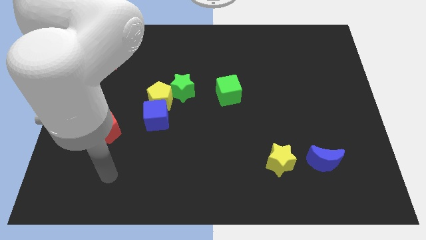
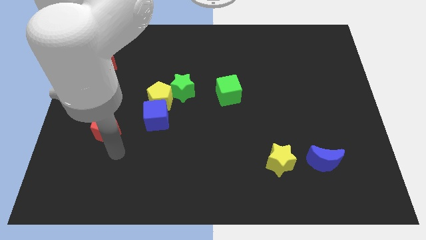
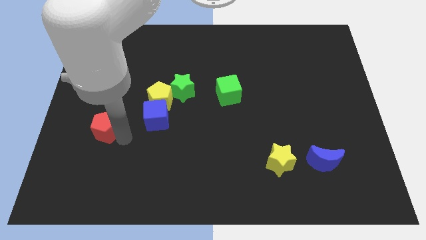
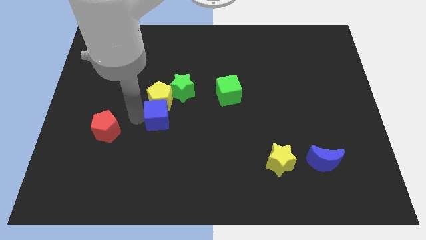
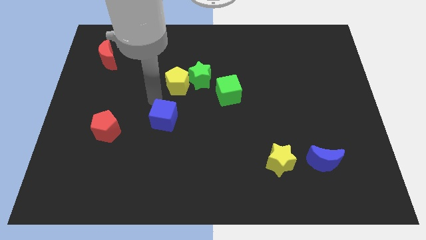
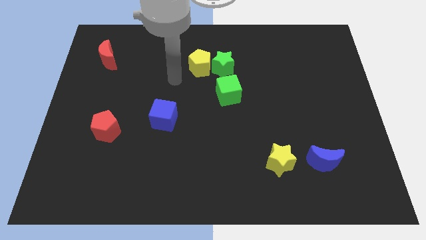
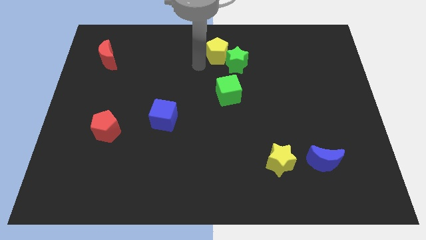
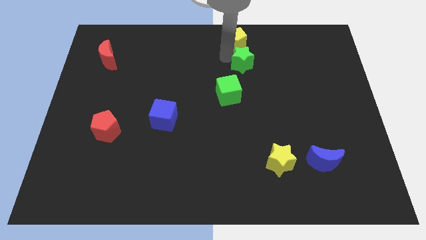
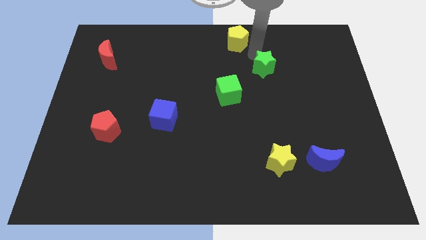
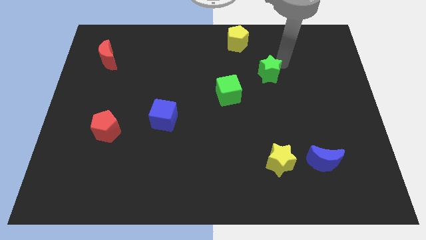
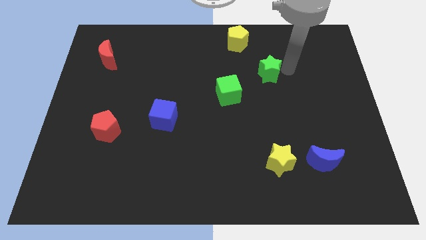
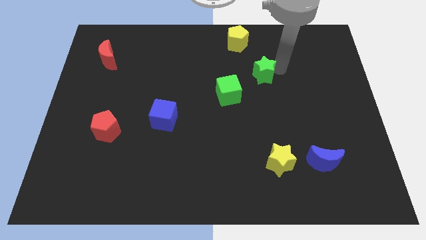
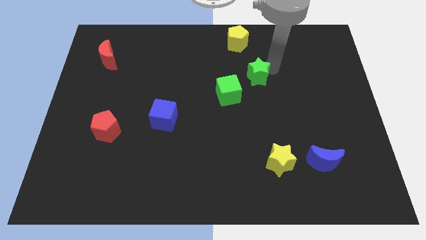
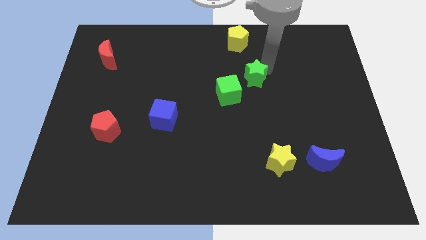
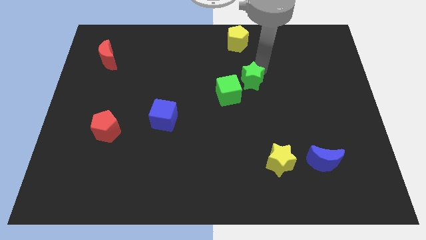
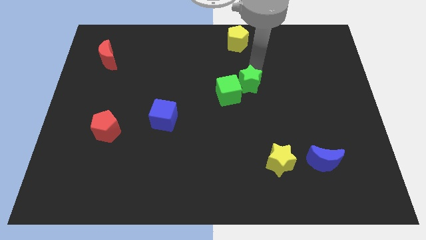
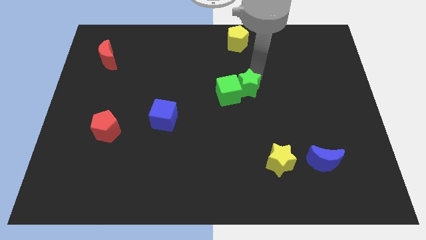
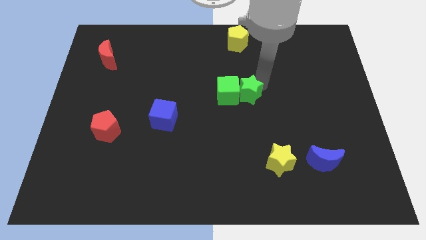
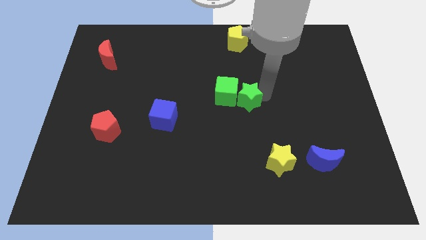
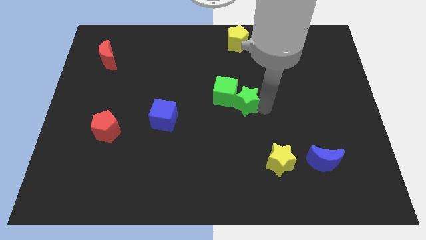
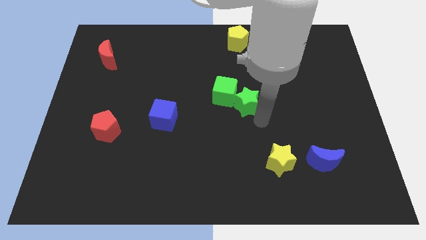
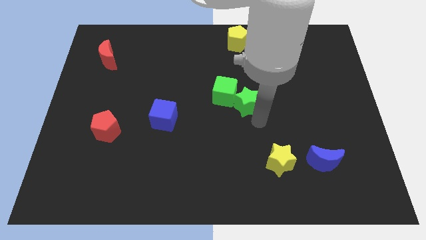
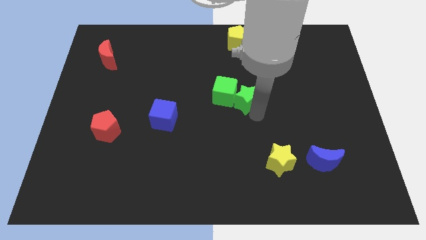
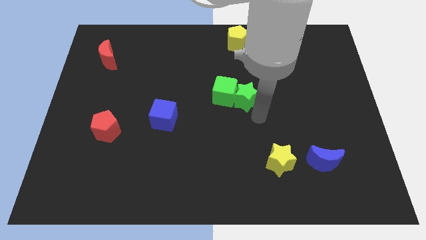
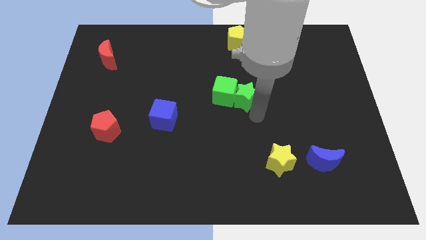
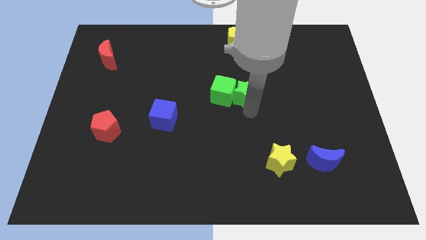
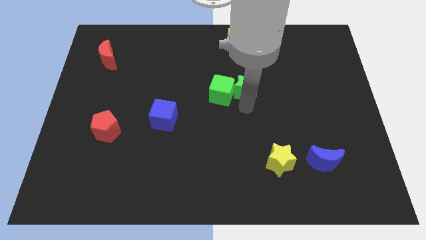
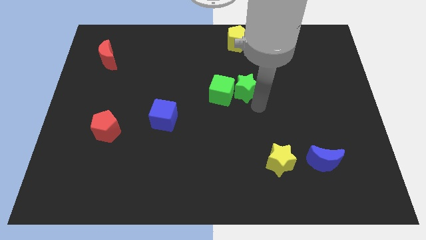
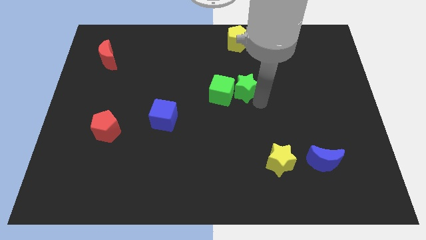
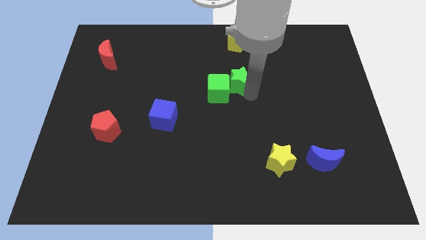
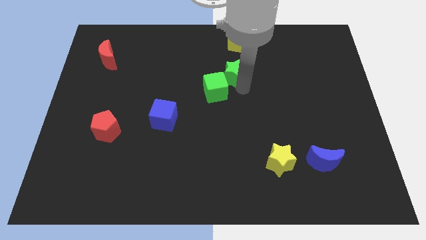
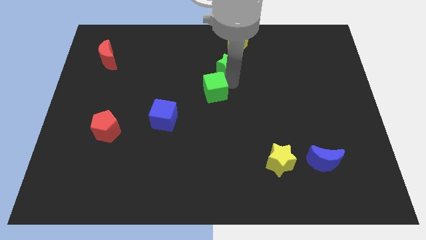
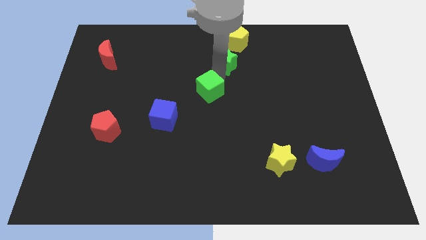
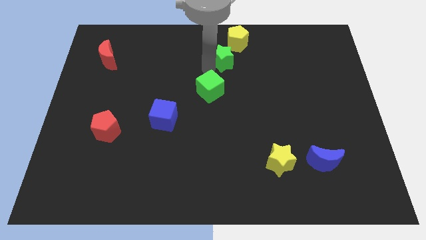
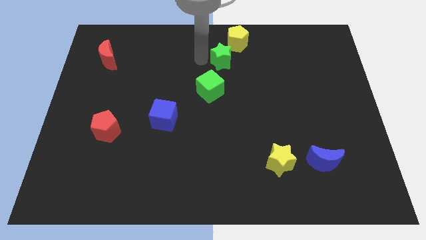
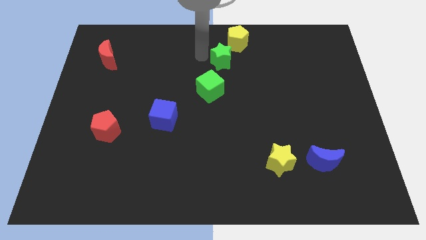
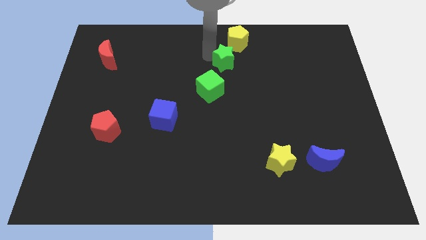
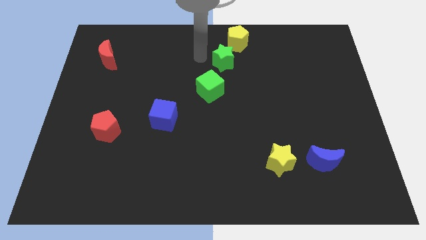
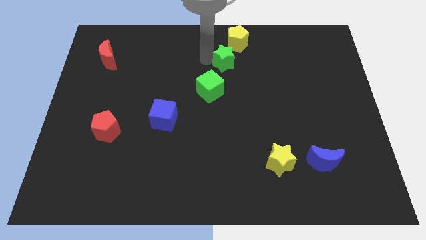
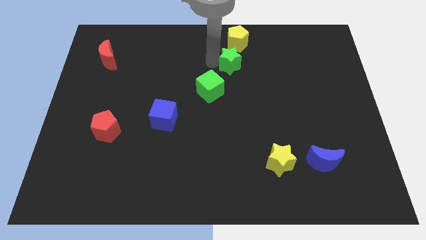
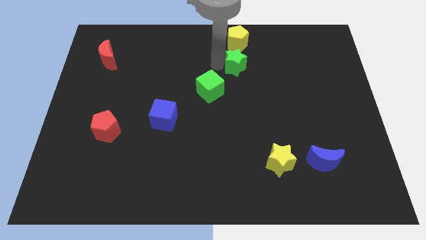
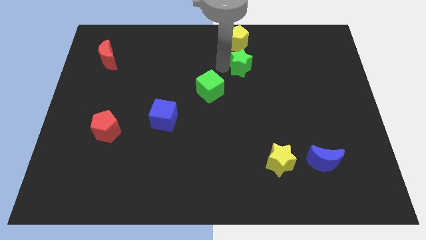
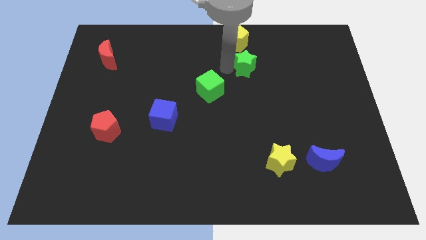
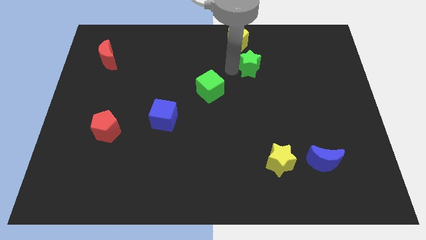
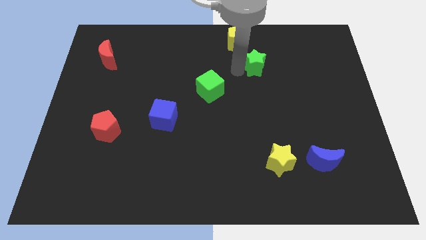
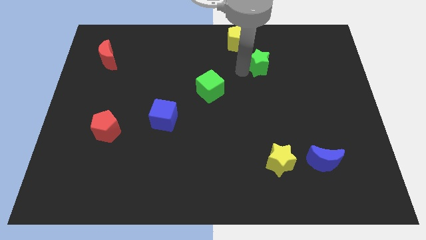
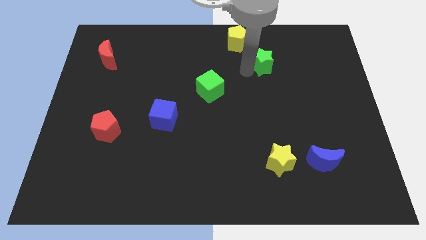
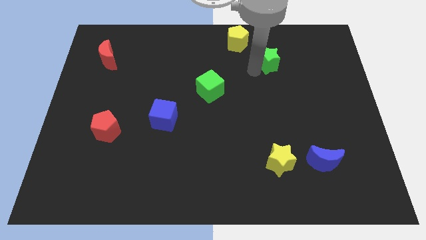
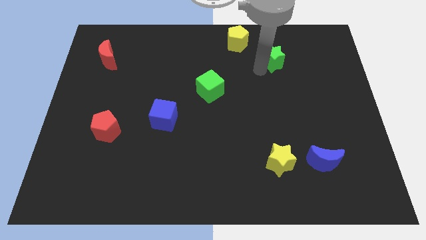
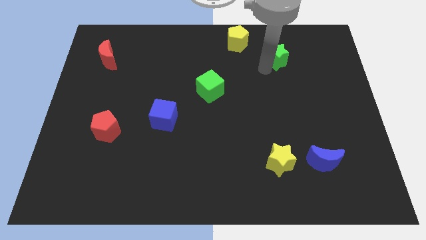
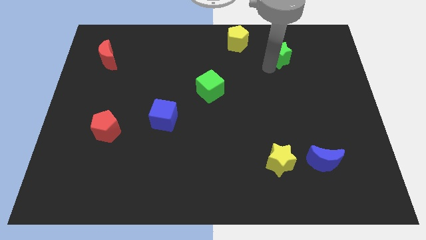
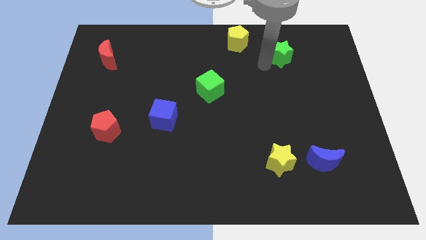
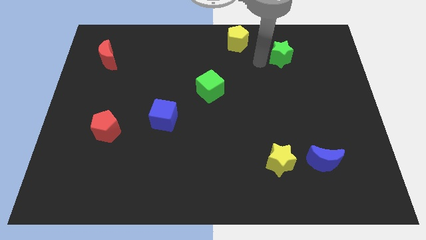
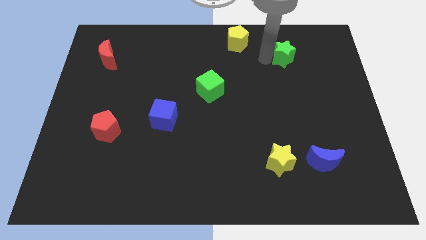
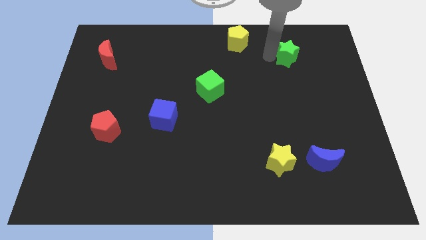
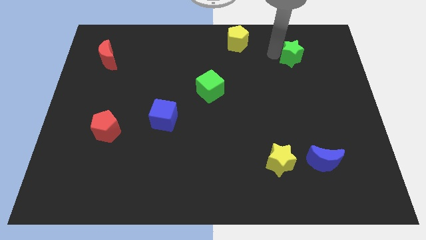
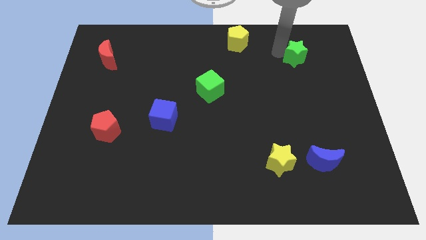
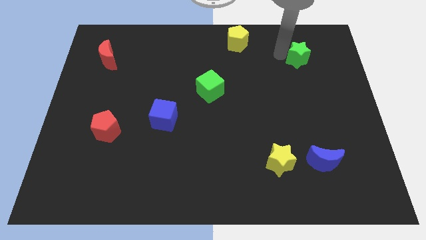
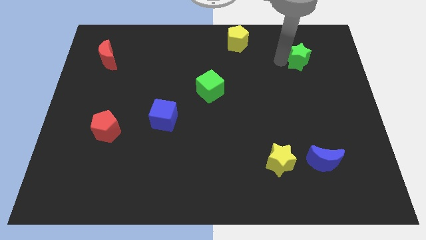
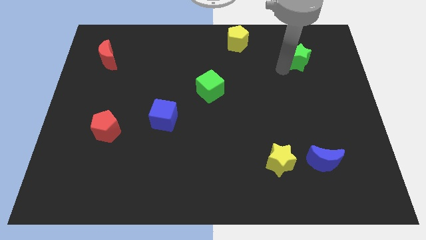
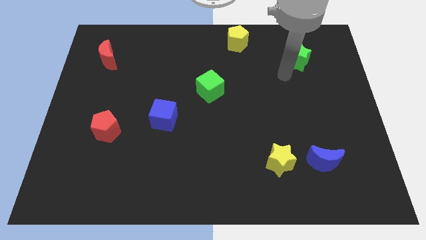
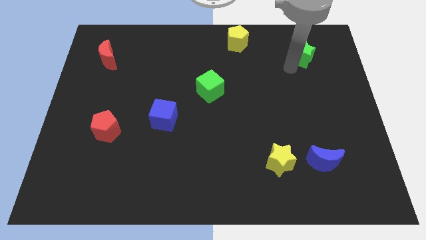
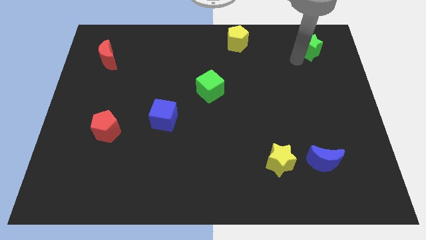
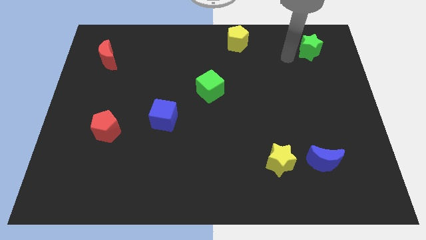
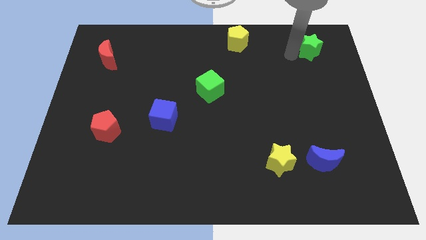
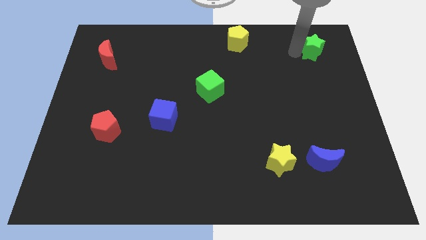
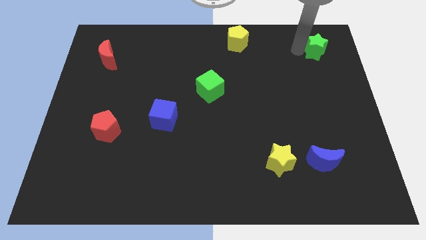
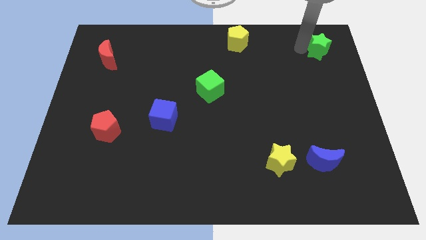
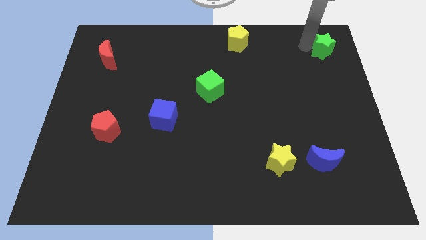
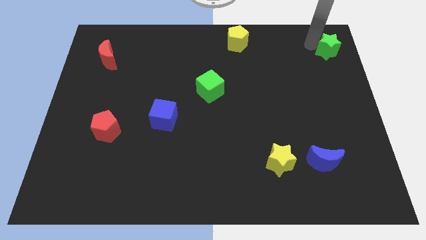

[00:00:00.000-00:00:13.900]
push the green star to the top right
